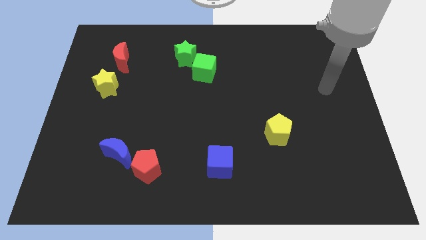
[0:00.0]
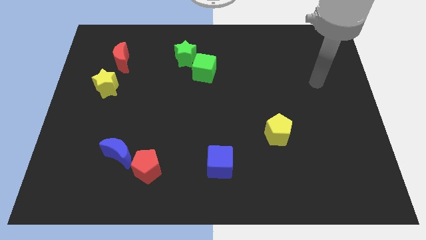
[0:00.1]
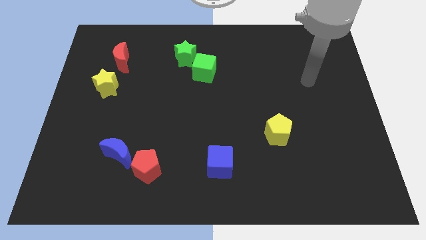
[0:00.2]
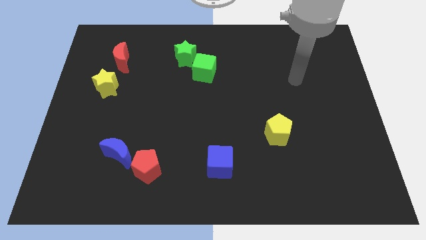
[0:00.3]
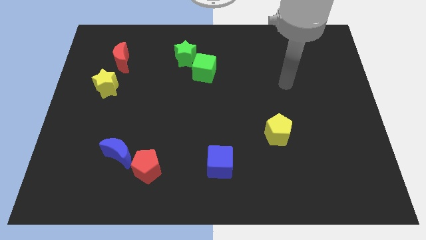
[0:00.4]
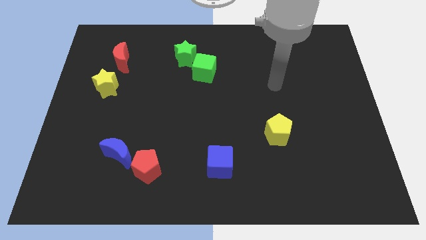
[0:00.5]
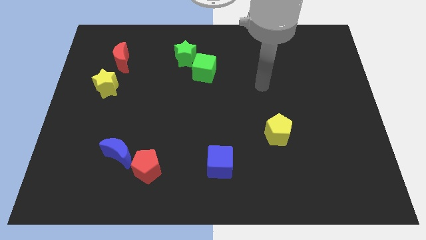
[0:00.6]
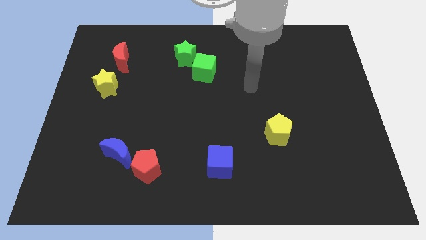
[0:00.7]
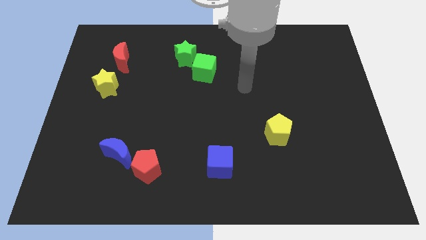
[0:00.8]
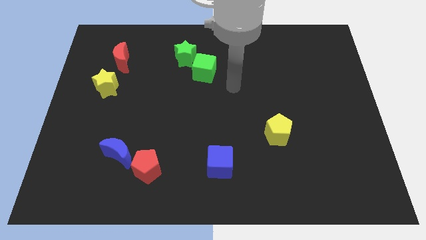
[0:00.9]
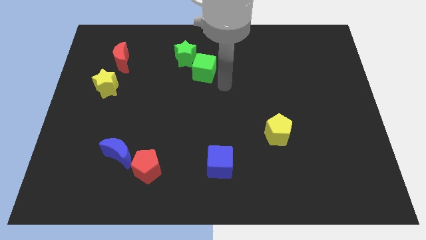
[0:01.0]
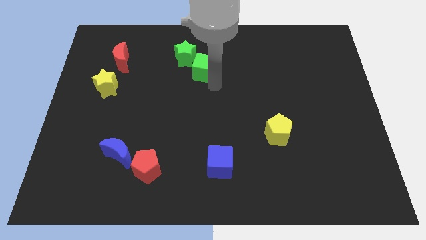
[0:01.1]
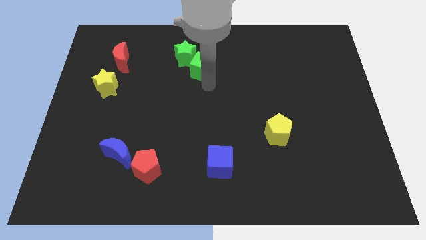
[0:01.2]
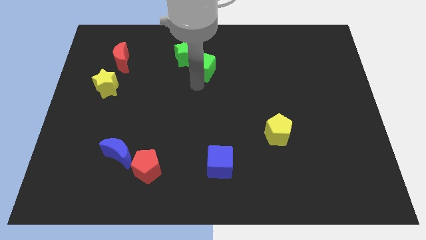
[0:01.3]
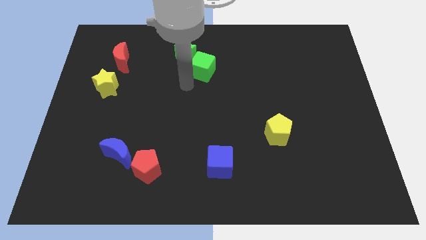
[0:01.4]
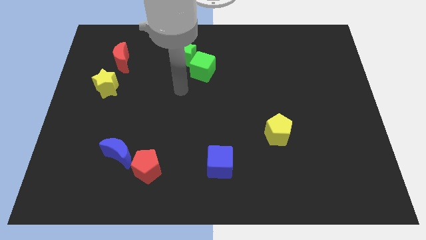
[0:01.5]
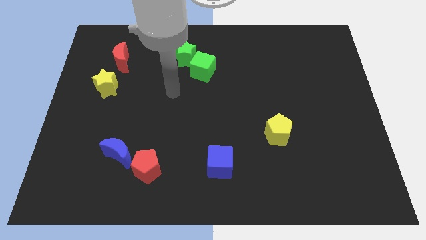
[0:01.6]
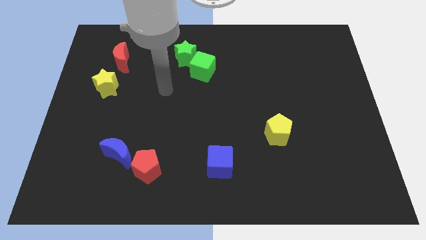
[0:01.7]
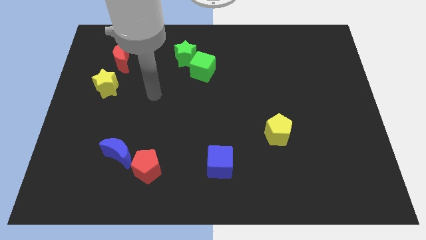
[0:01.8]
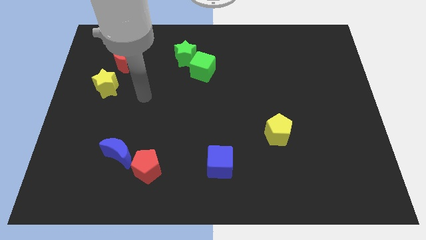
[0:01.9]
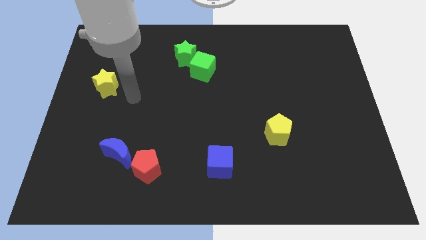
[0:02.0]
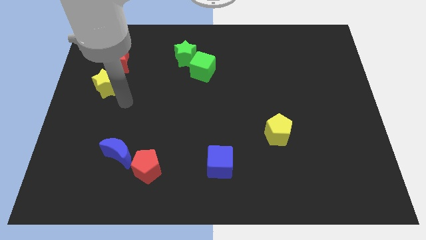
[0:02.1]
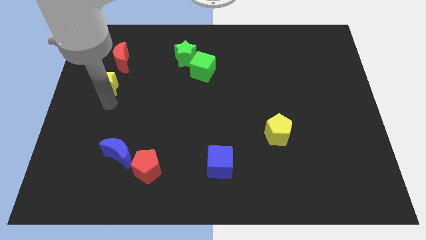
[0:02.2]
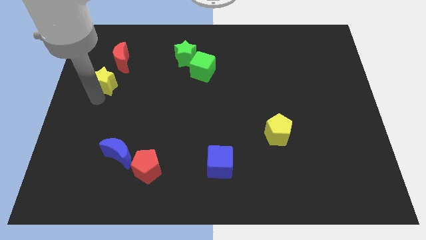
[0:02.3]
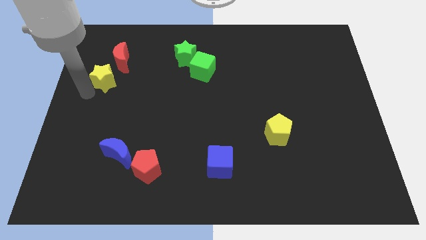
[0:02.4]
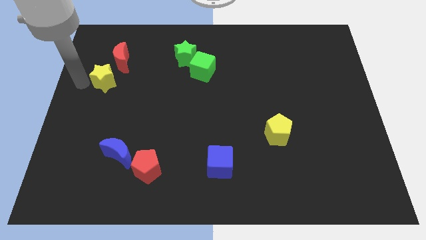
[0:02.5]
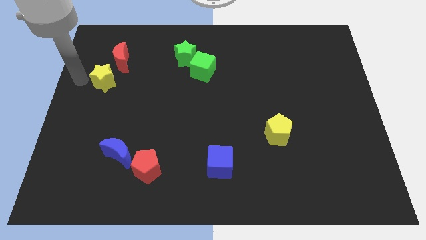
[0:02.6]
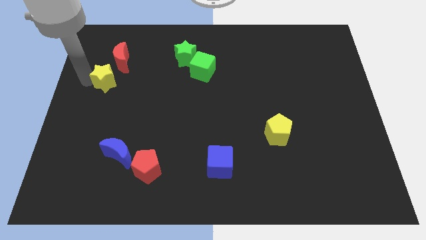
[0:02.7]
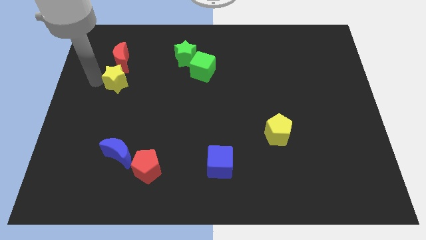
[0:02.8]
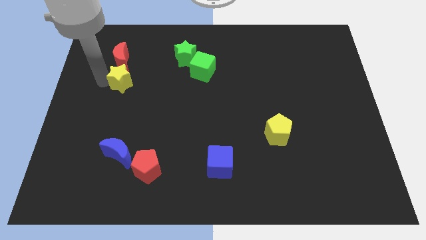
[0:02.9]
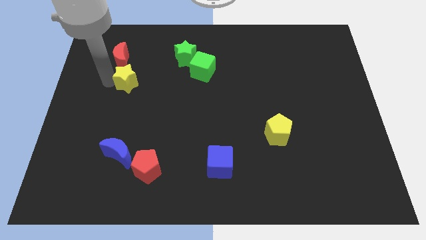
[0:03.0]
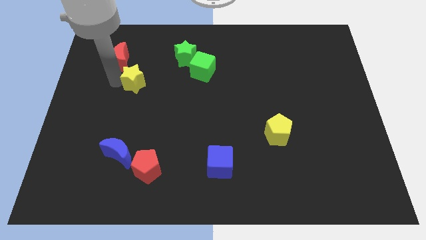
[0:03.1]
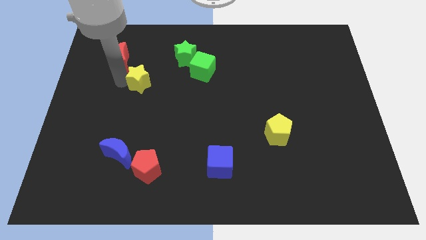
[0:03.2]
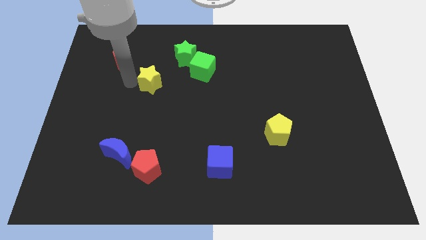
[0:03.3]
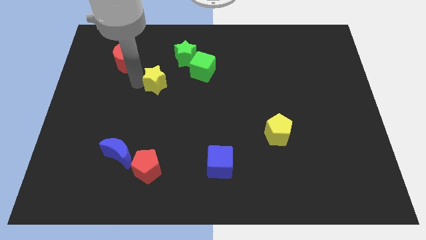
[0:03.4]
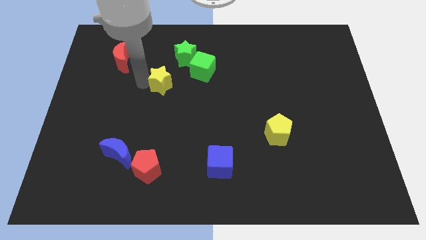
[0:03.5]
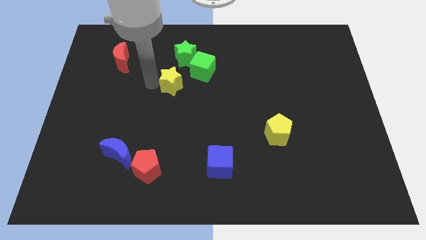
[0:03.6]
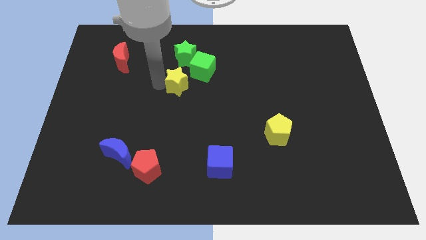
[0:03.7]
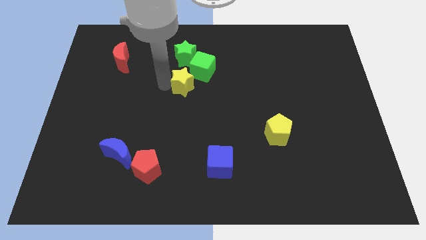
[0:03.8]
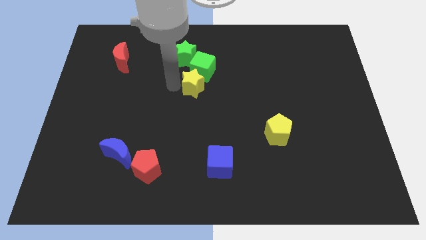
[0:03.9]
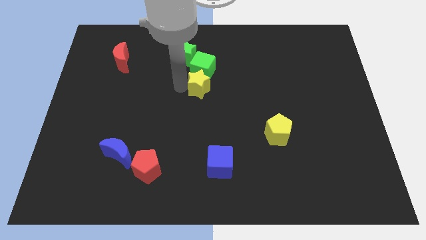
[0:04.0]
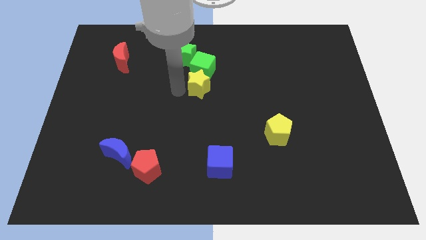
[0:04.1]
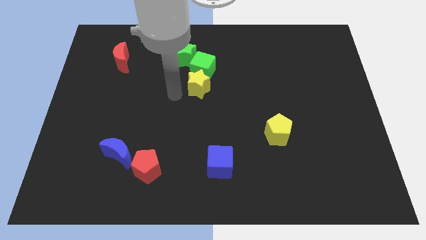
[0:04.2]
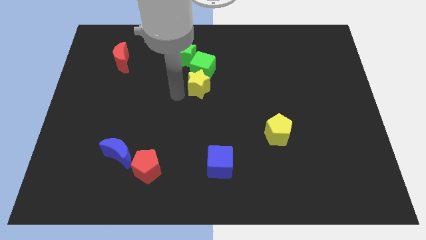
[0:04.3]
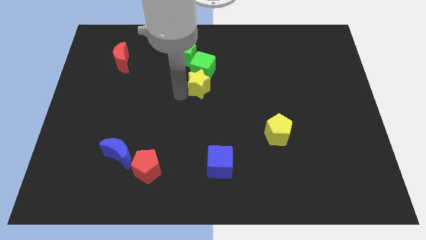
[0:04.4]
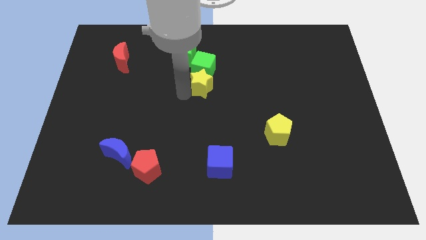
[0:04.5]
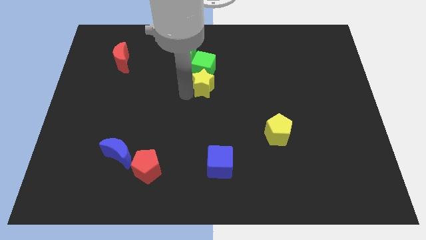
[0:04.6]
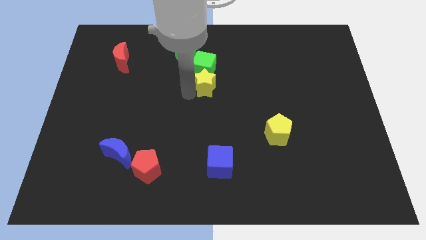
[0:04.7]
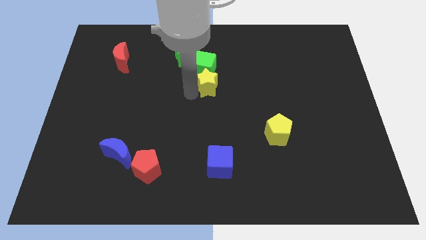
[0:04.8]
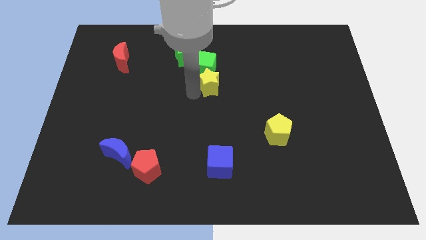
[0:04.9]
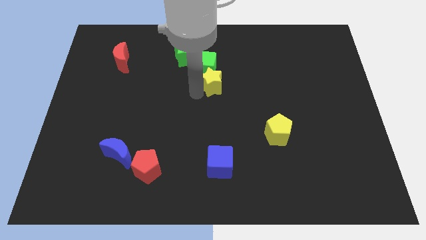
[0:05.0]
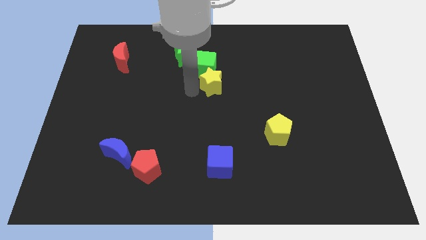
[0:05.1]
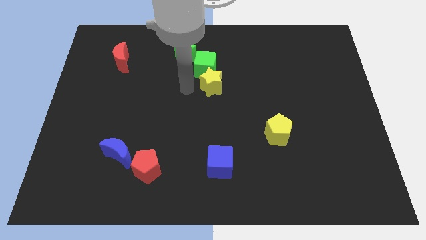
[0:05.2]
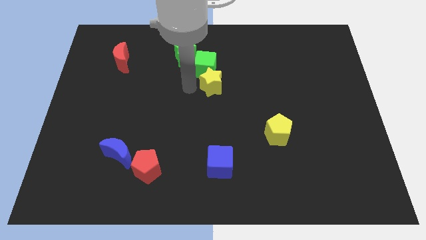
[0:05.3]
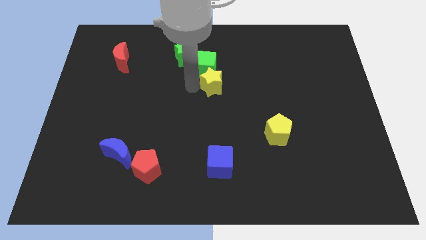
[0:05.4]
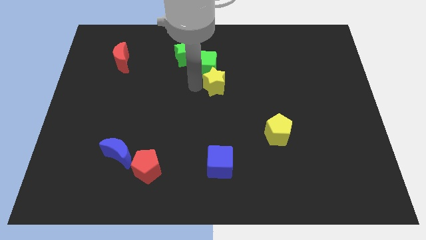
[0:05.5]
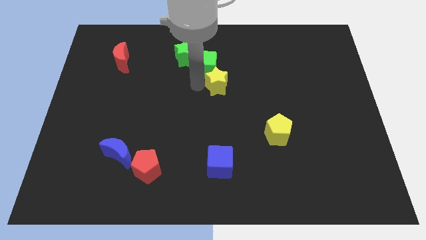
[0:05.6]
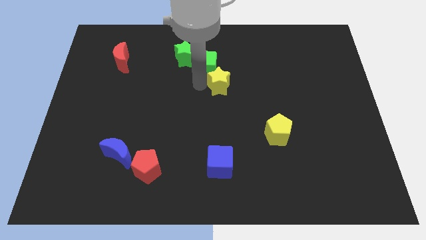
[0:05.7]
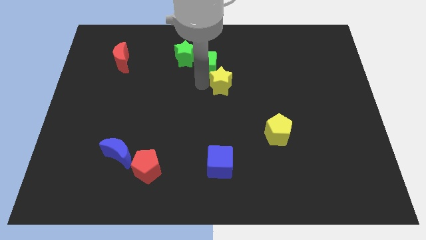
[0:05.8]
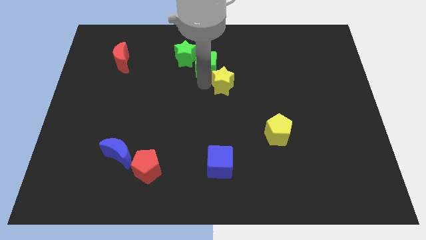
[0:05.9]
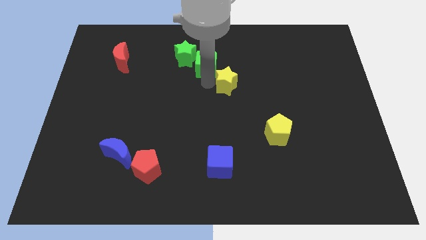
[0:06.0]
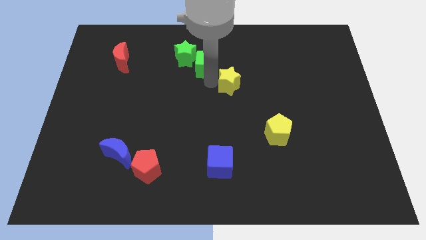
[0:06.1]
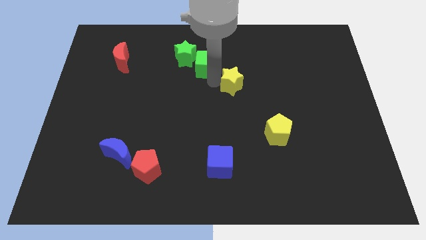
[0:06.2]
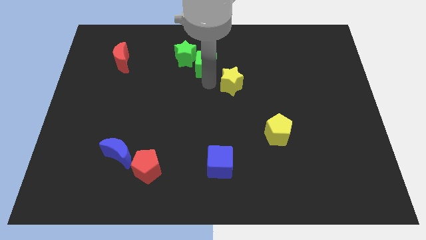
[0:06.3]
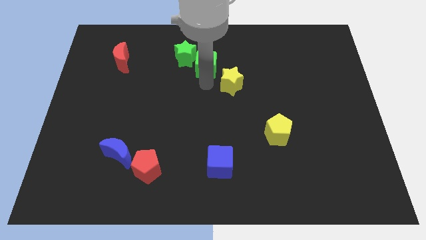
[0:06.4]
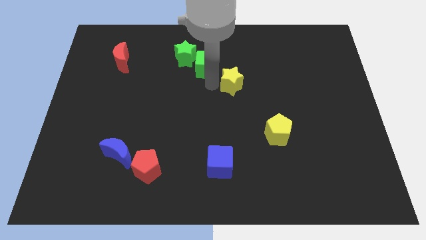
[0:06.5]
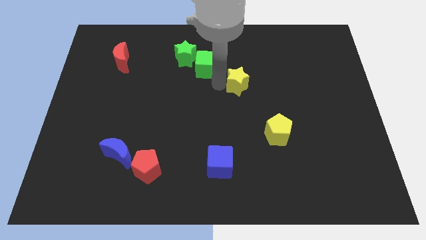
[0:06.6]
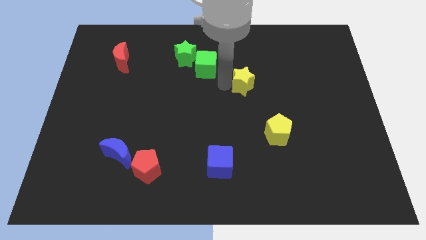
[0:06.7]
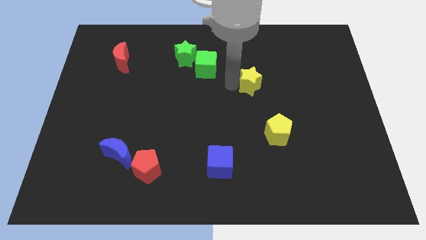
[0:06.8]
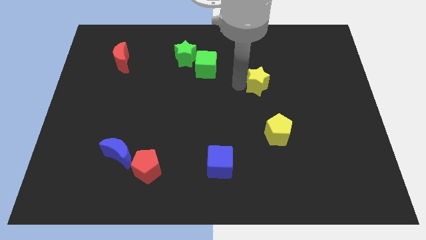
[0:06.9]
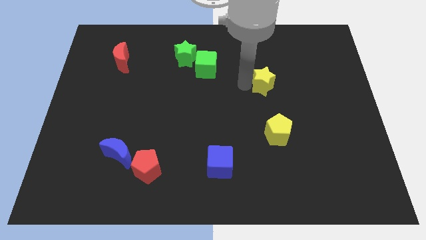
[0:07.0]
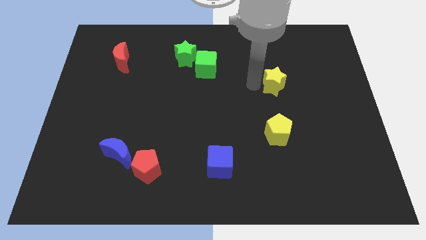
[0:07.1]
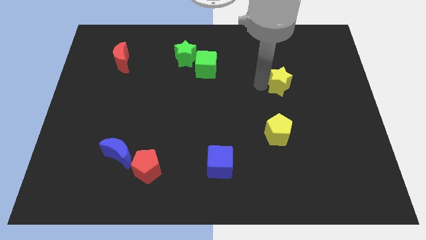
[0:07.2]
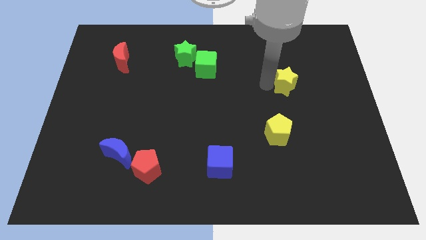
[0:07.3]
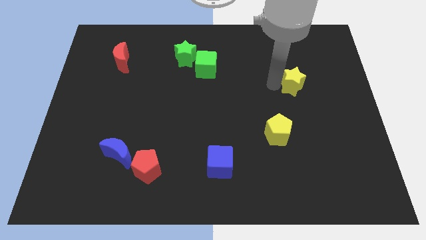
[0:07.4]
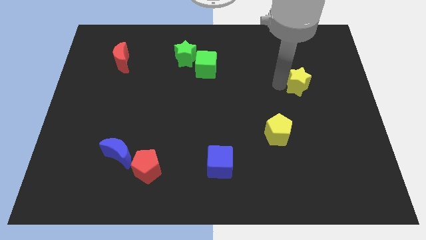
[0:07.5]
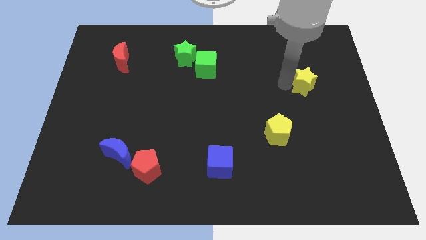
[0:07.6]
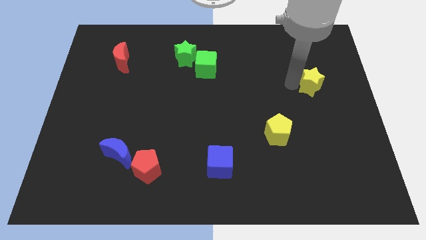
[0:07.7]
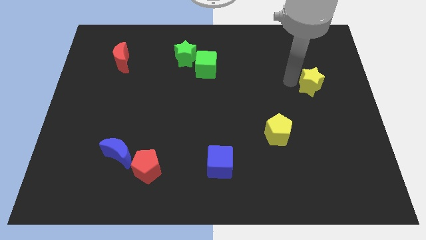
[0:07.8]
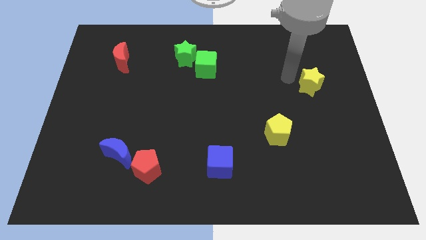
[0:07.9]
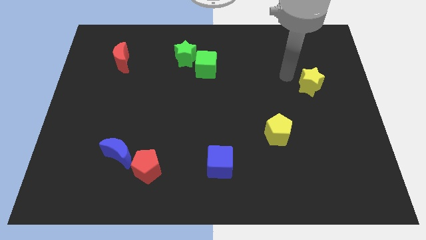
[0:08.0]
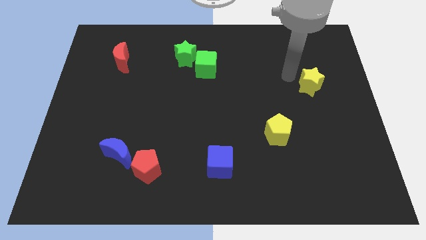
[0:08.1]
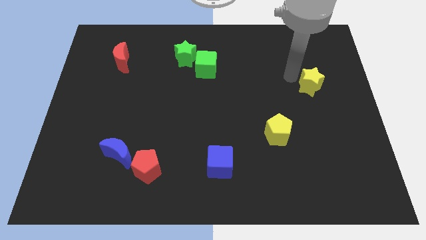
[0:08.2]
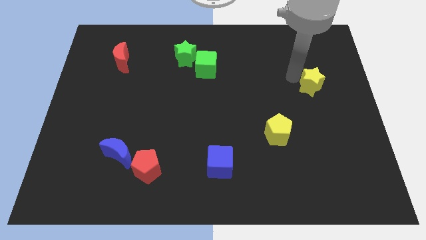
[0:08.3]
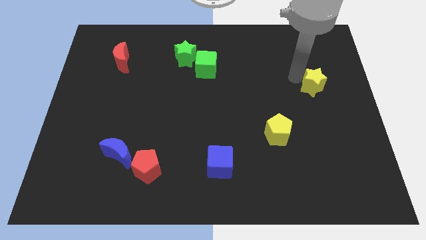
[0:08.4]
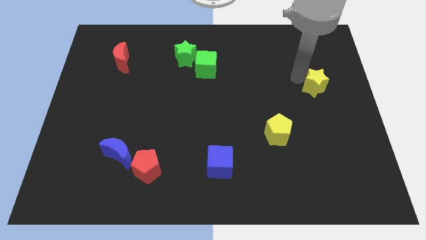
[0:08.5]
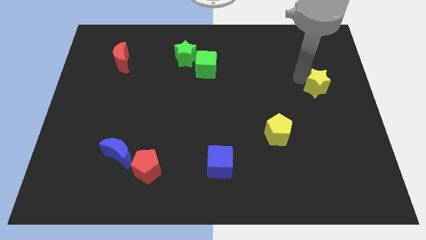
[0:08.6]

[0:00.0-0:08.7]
put the yellow star to the right side
